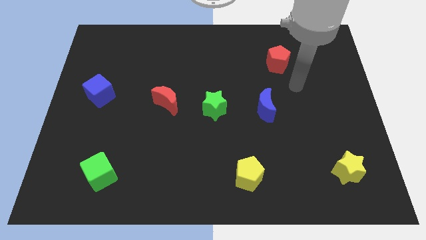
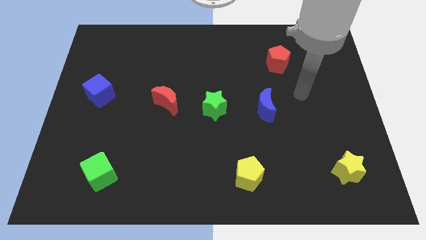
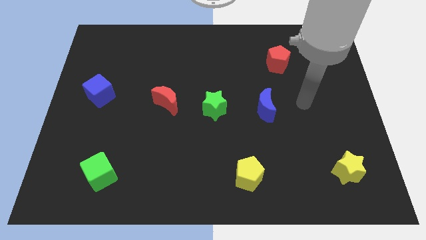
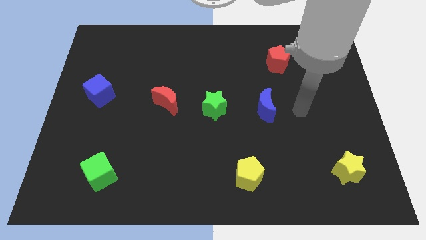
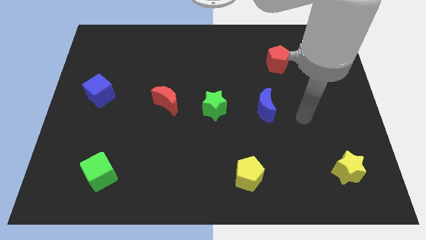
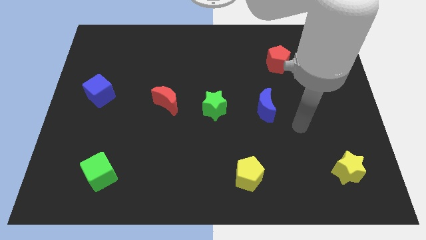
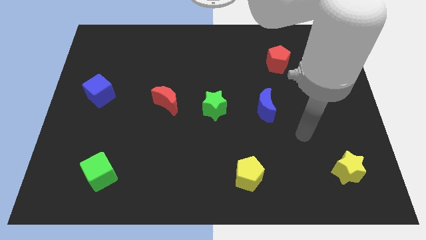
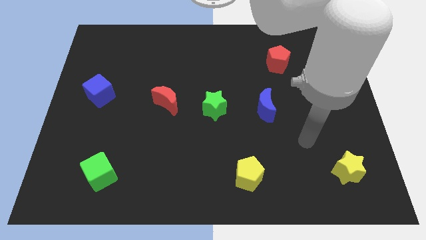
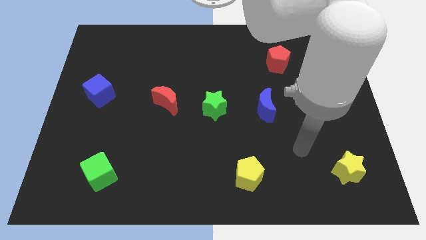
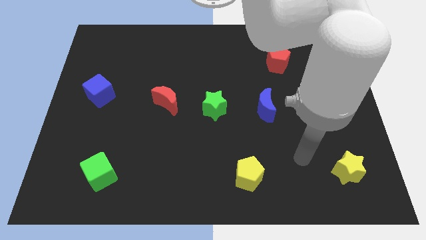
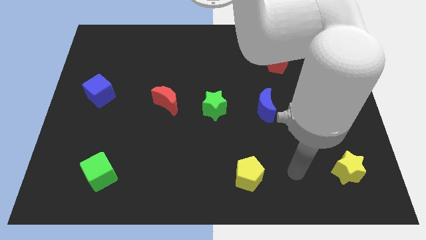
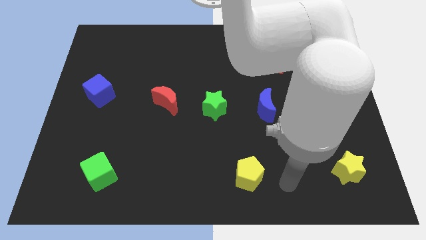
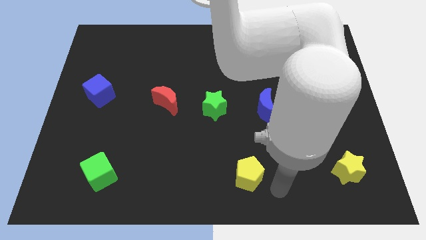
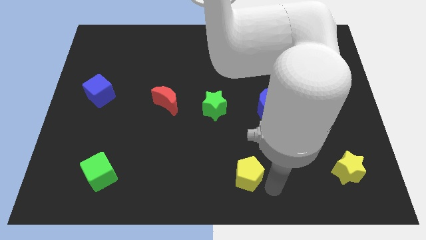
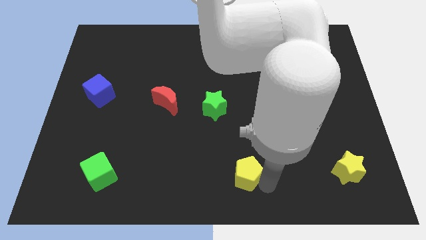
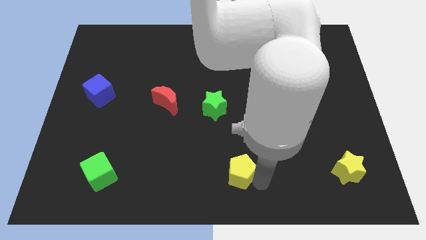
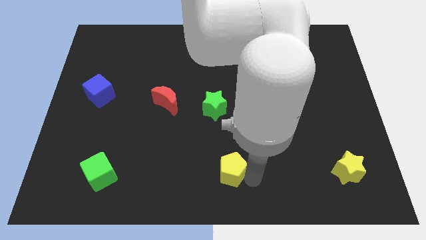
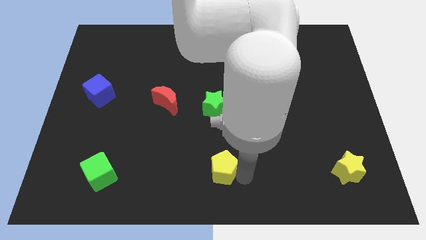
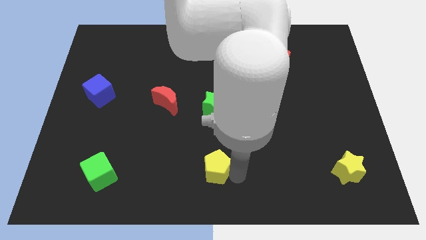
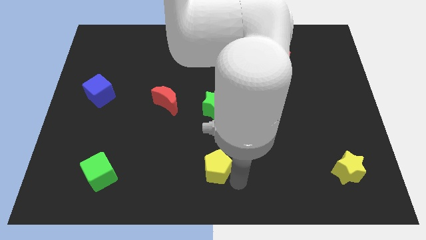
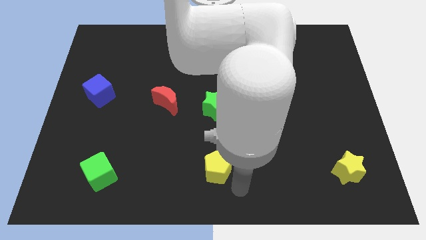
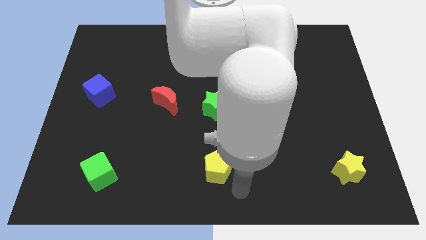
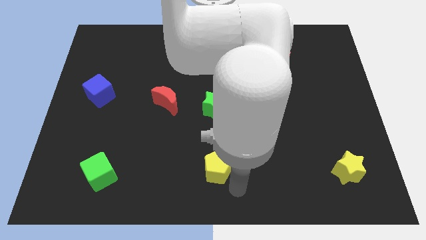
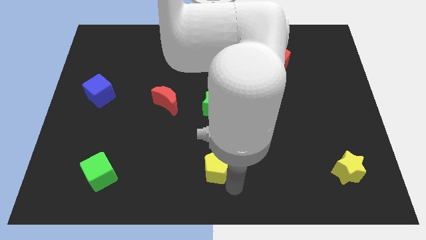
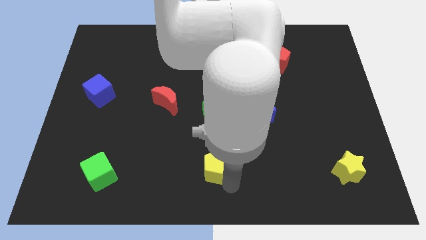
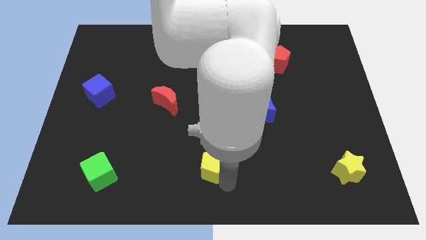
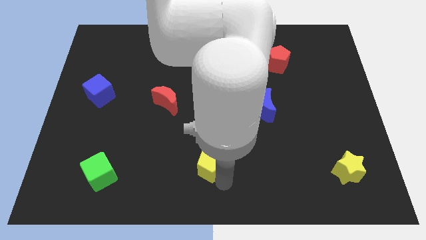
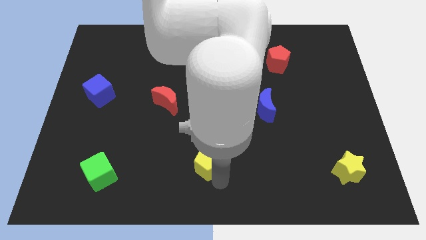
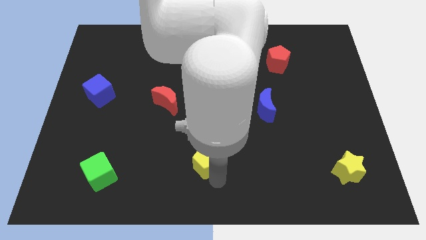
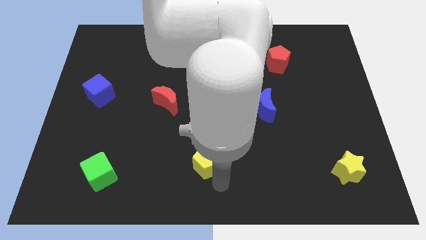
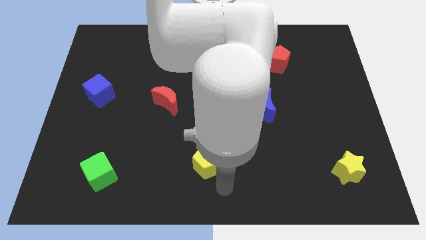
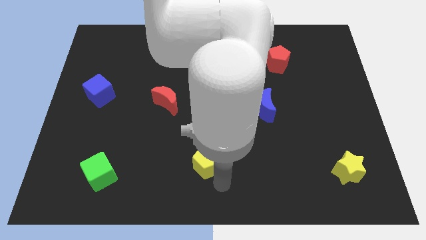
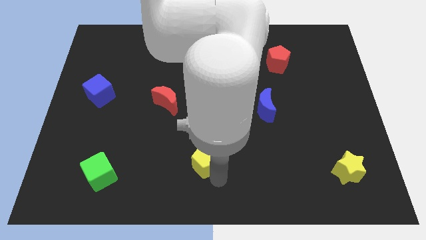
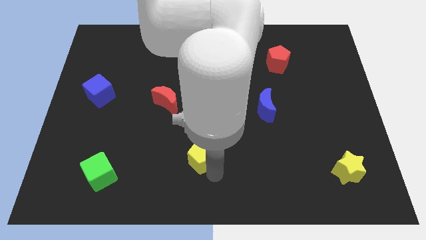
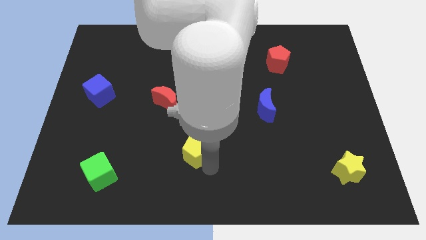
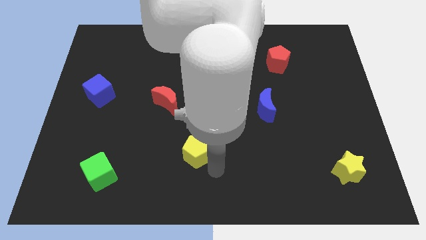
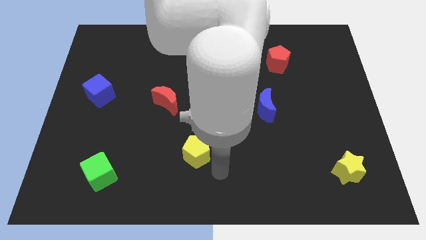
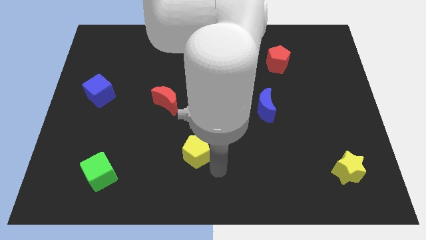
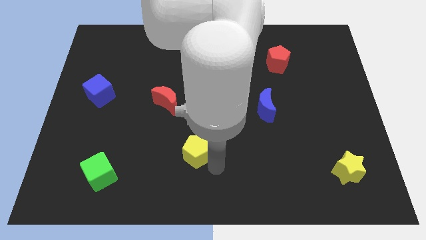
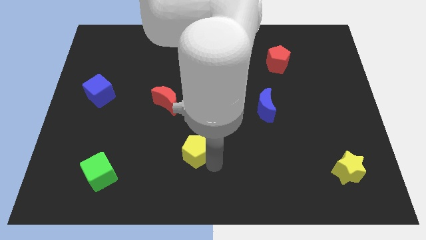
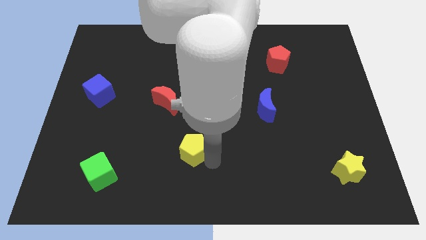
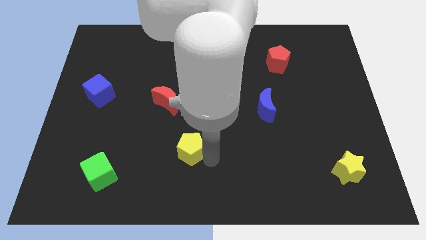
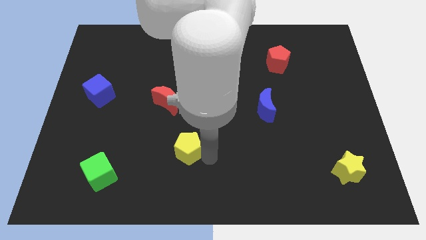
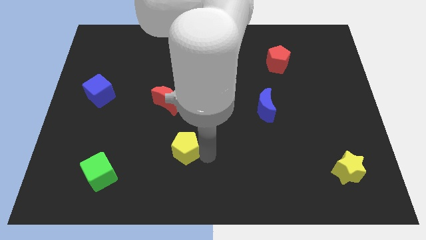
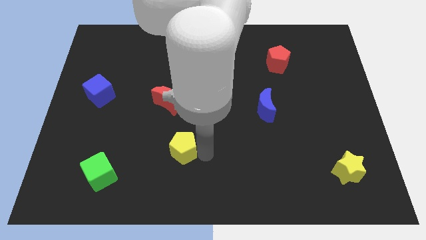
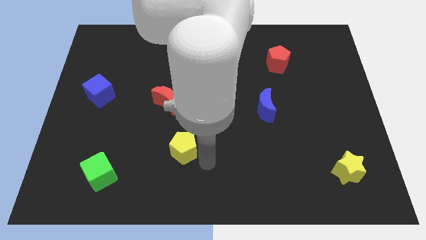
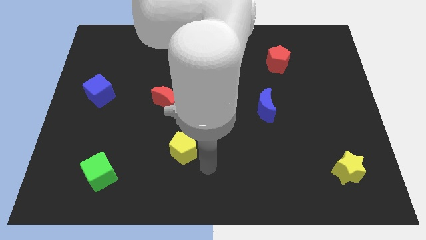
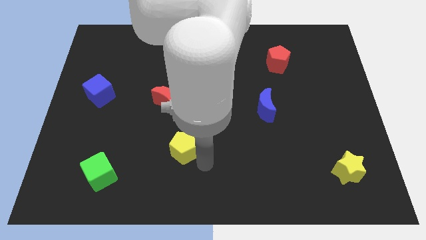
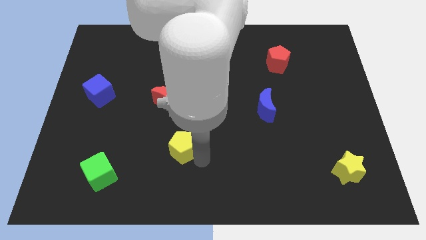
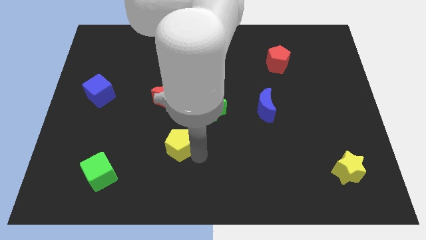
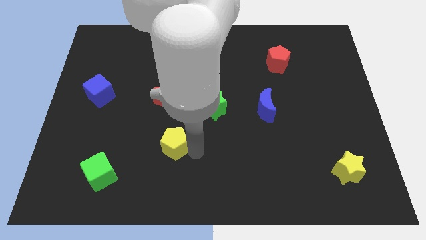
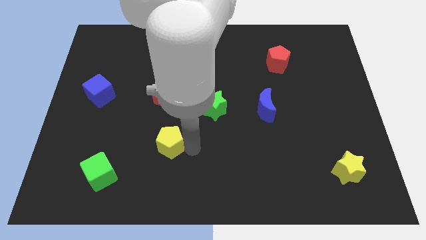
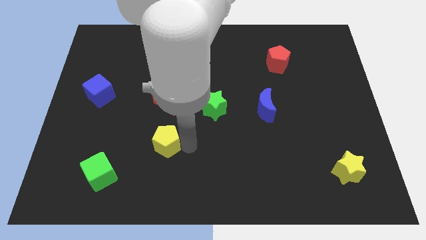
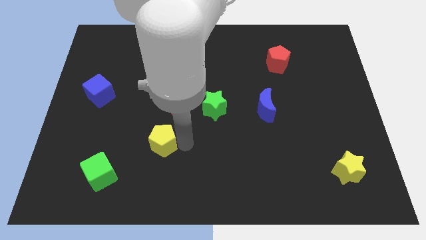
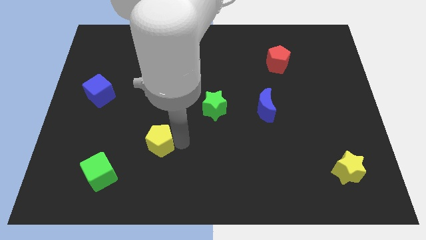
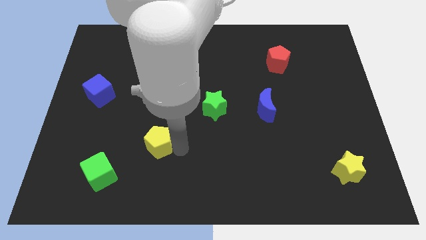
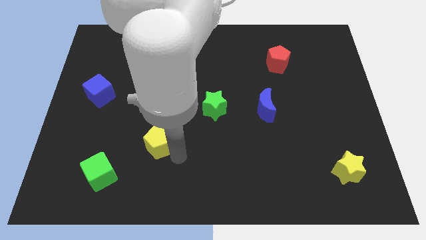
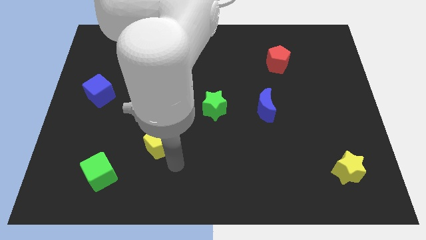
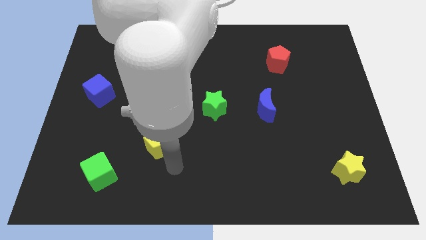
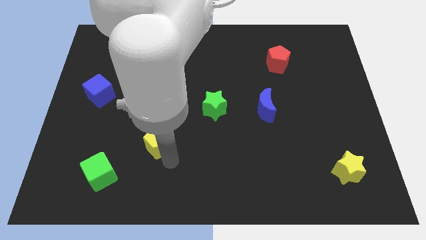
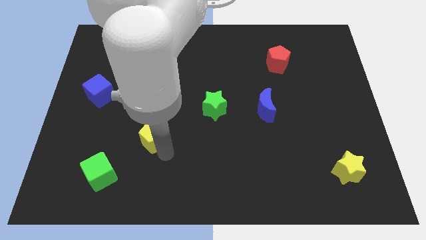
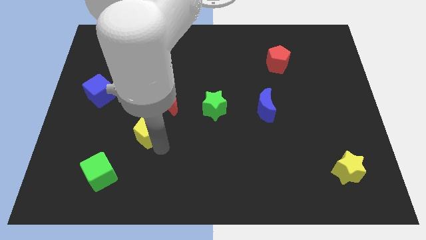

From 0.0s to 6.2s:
push the yellow pentagon to the bottom left of the red moon

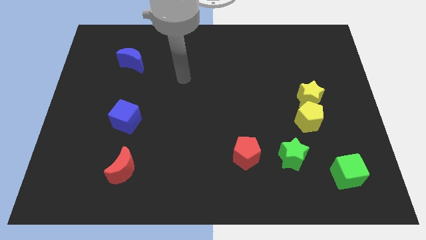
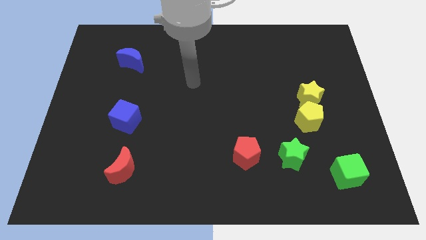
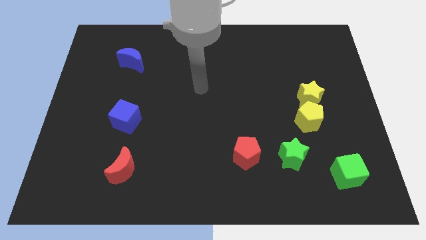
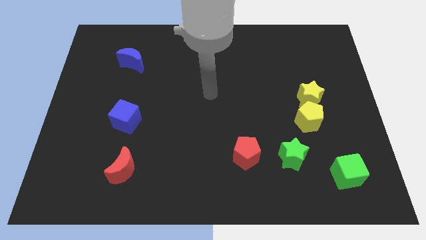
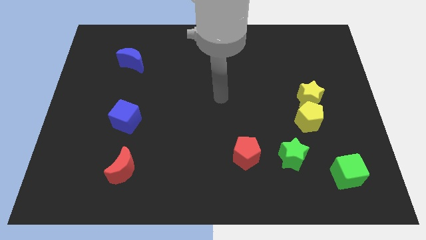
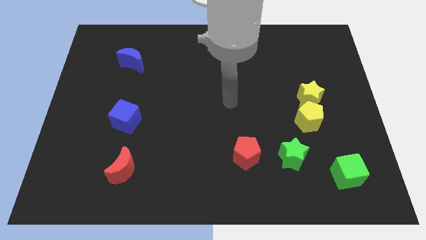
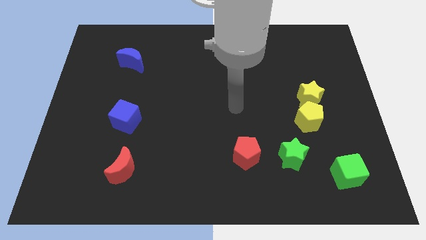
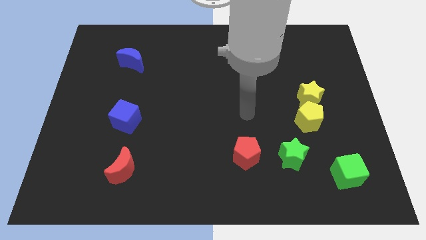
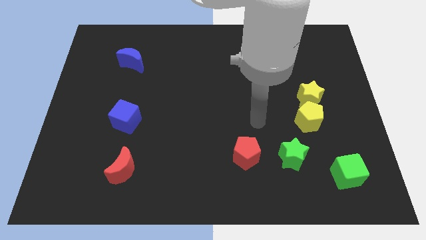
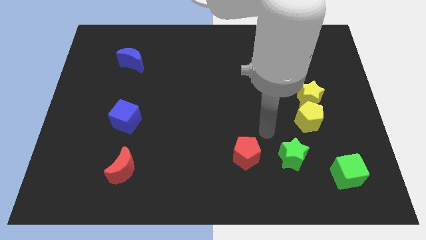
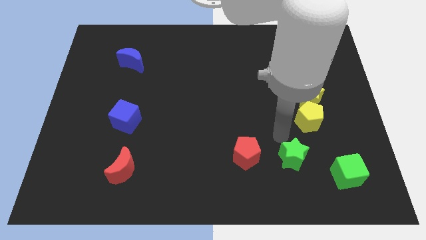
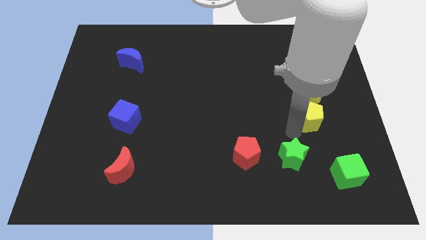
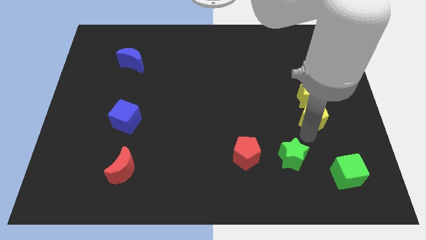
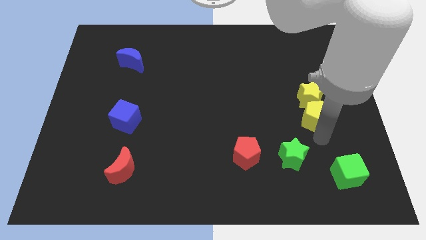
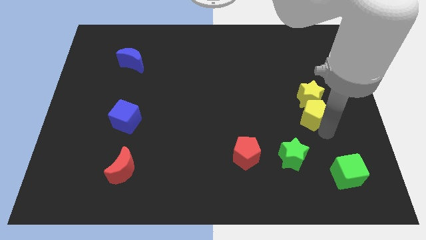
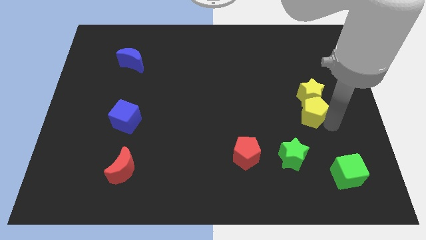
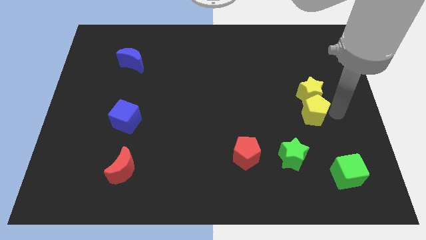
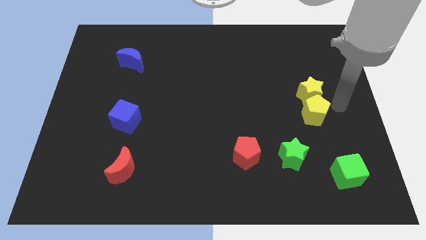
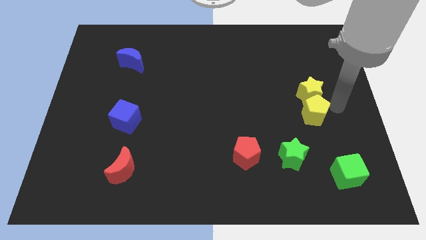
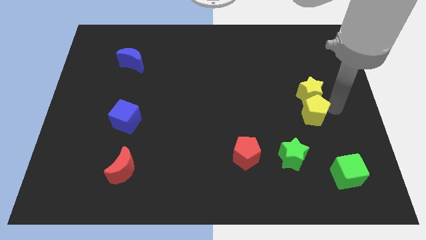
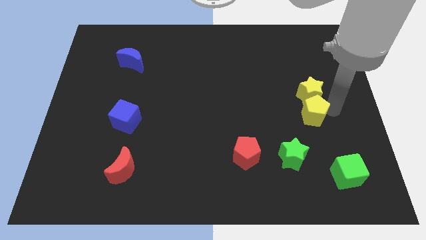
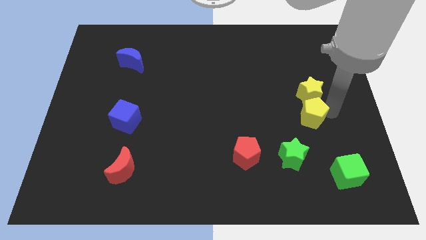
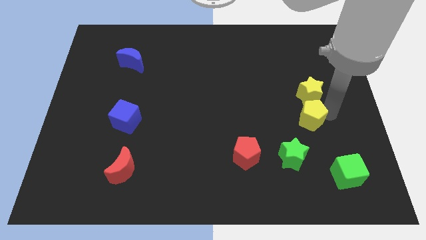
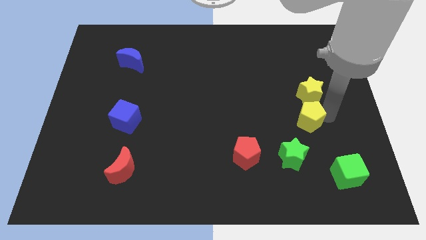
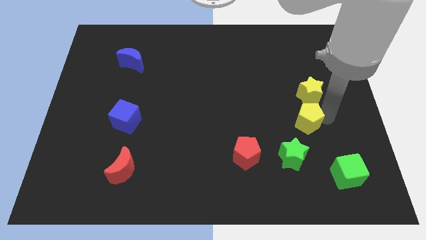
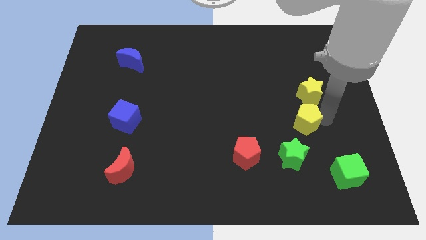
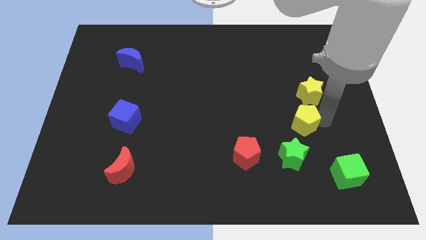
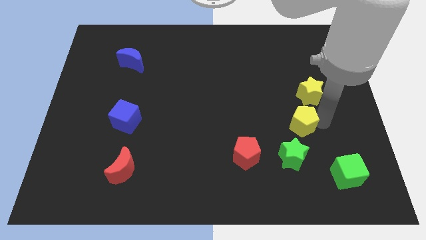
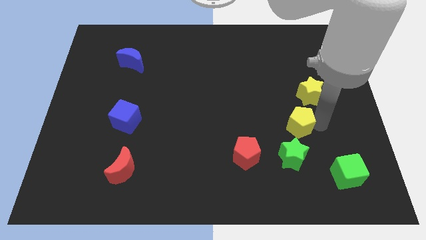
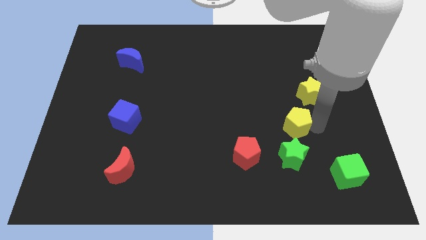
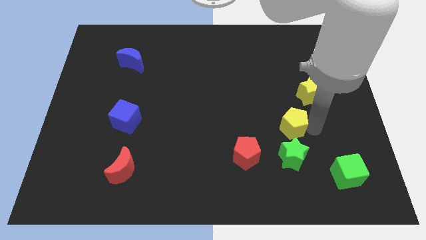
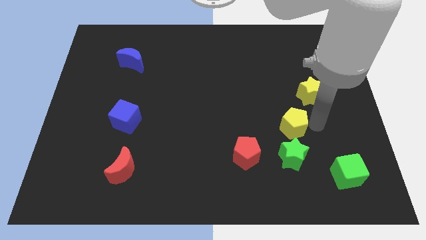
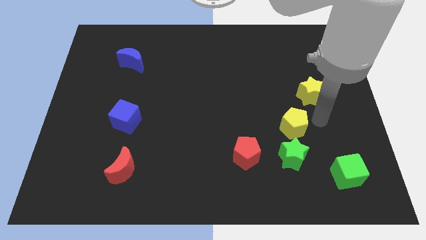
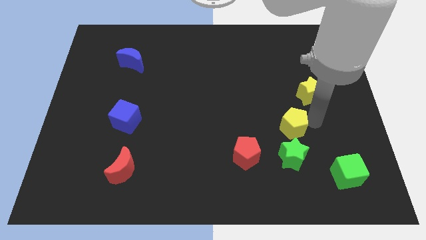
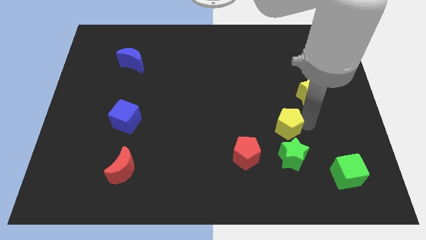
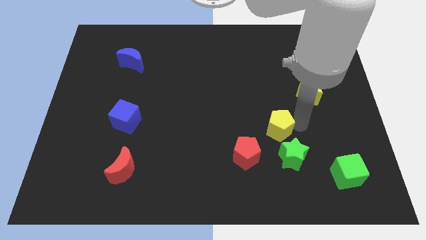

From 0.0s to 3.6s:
move the yellow pentagon diagonally up and to the left of the green star
